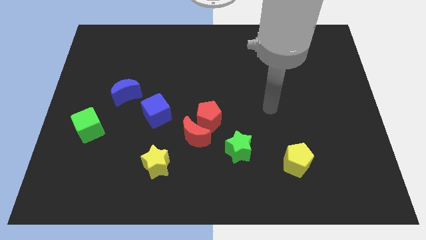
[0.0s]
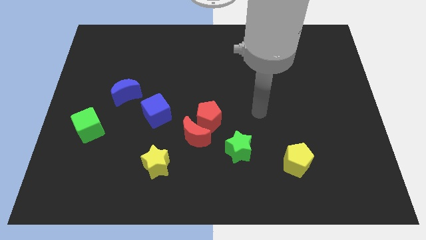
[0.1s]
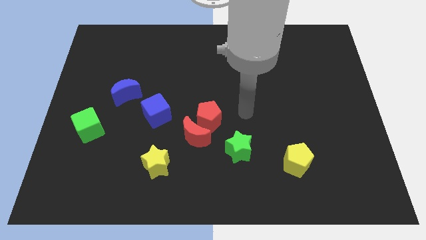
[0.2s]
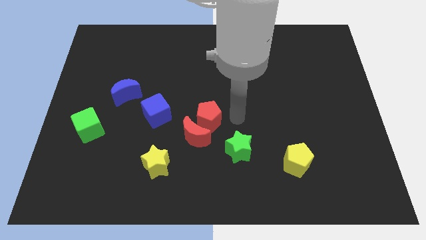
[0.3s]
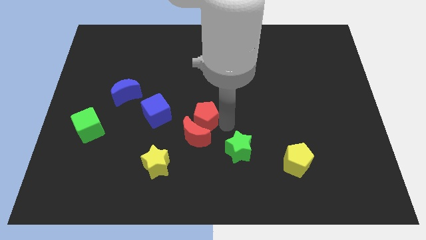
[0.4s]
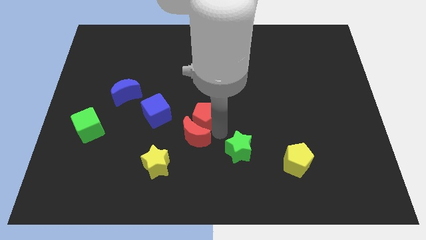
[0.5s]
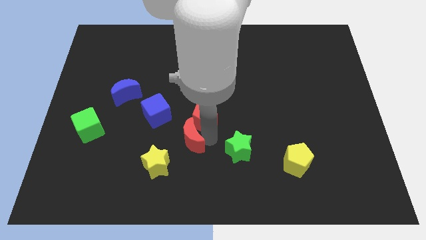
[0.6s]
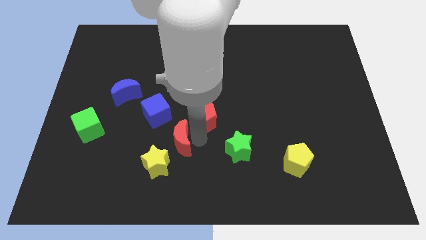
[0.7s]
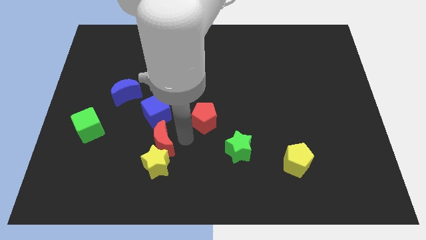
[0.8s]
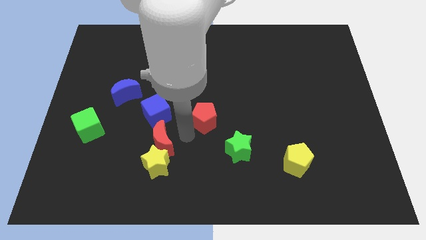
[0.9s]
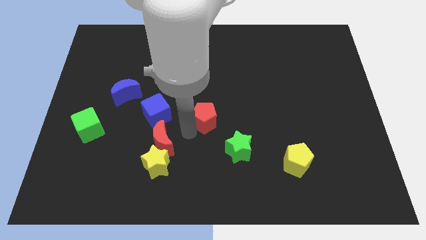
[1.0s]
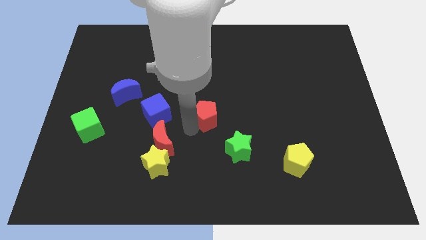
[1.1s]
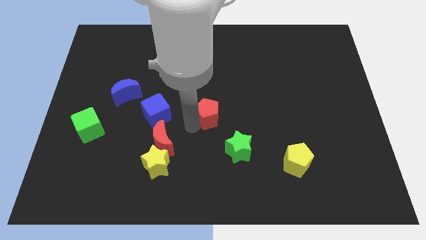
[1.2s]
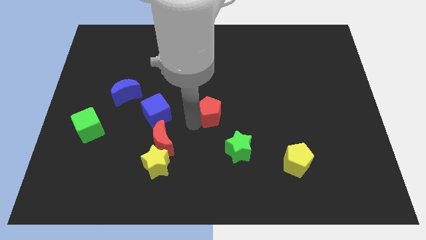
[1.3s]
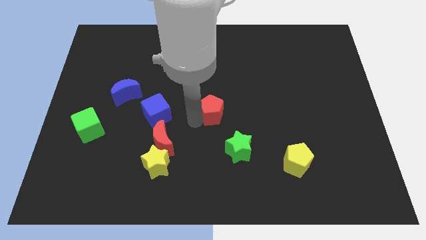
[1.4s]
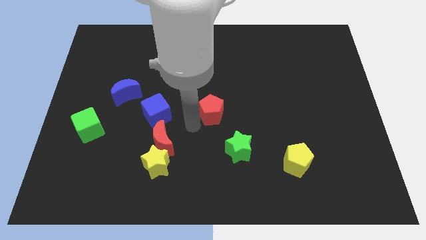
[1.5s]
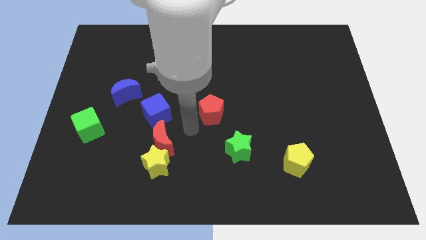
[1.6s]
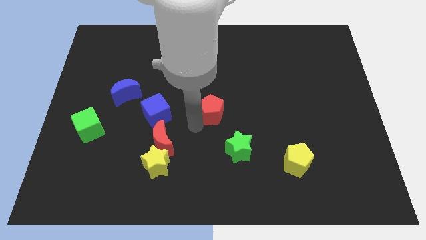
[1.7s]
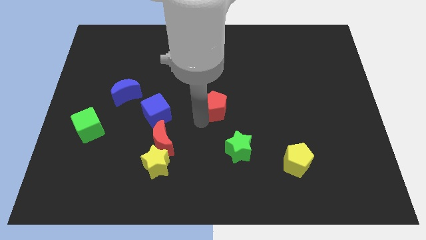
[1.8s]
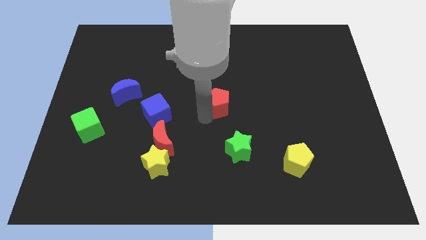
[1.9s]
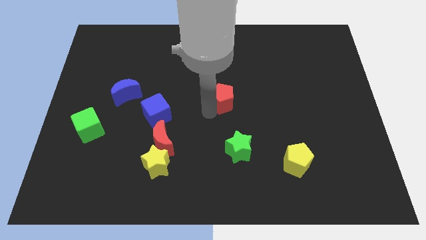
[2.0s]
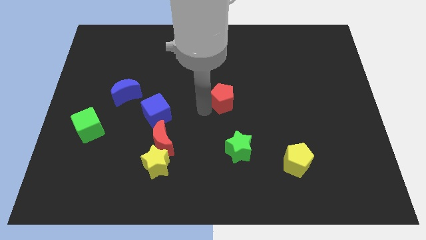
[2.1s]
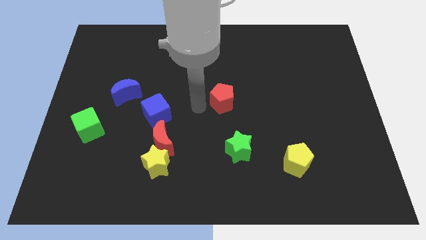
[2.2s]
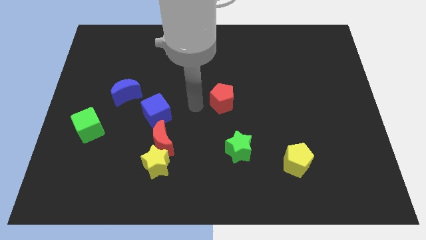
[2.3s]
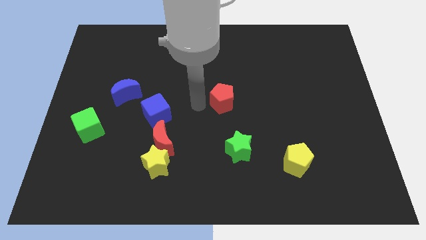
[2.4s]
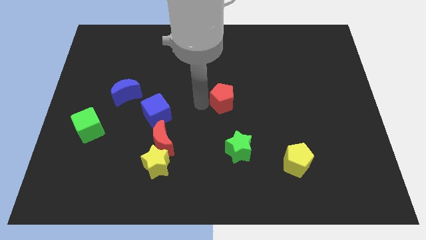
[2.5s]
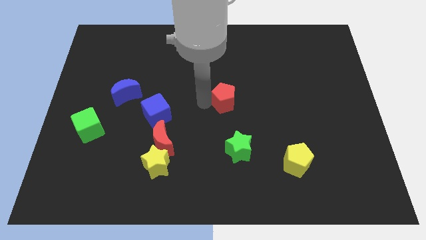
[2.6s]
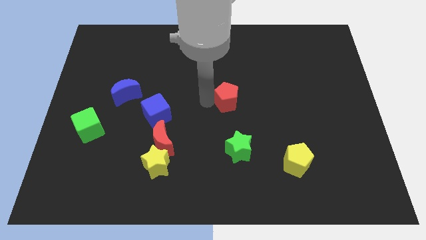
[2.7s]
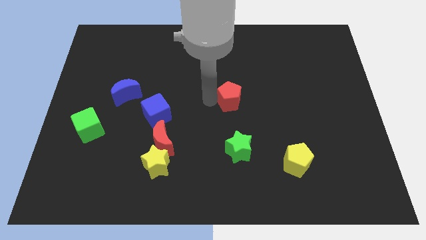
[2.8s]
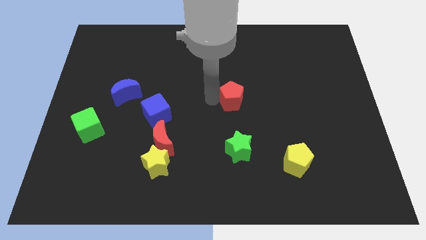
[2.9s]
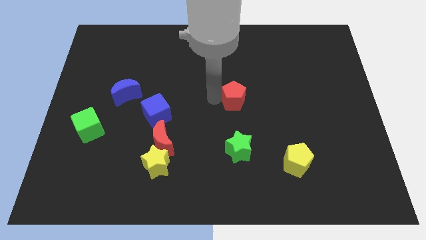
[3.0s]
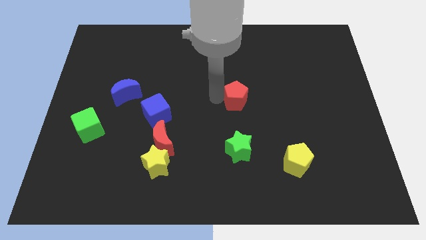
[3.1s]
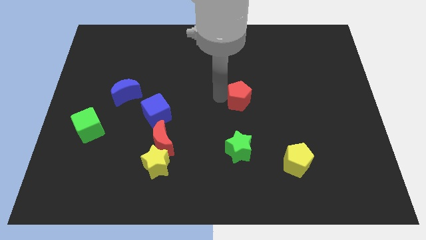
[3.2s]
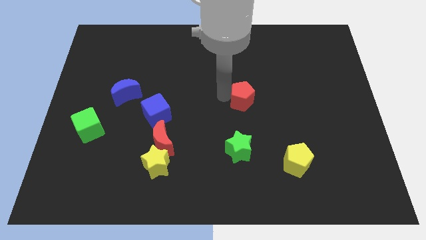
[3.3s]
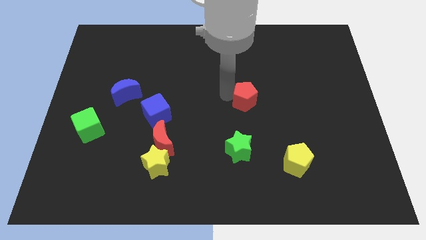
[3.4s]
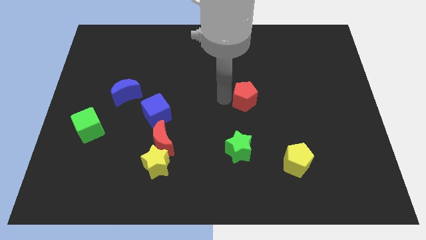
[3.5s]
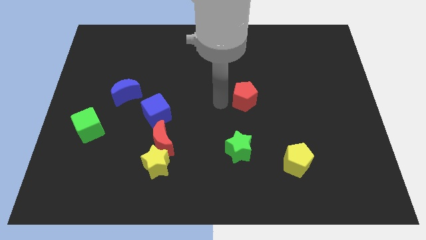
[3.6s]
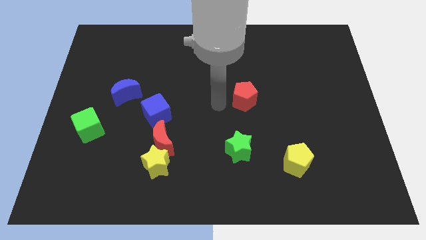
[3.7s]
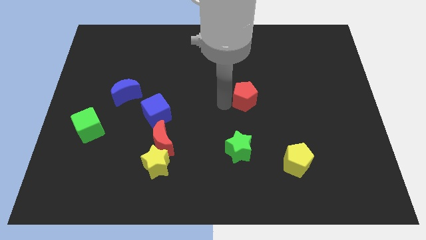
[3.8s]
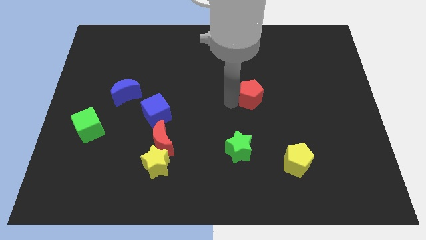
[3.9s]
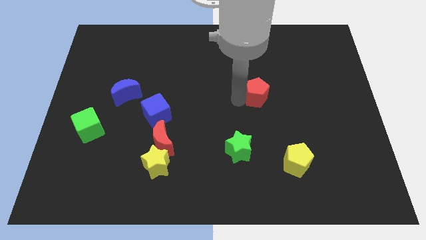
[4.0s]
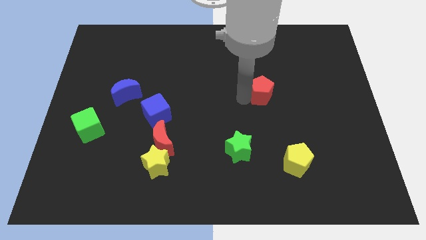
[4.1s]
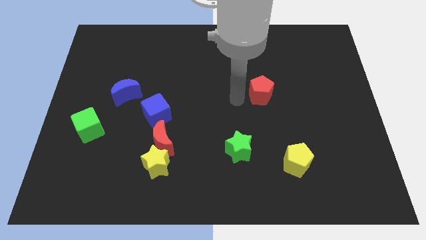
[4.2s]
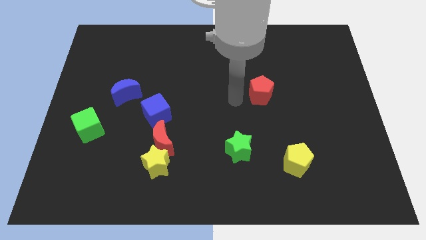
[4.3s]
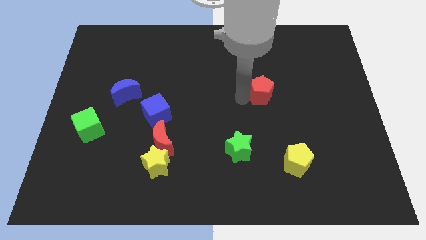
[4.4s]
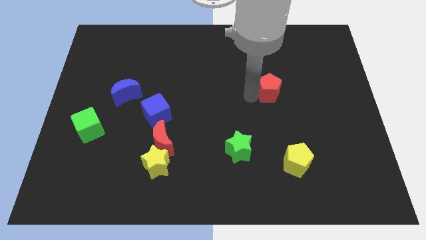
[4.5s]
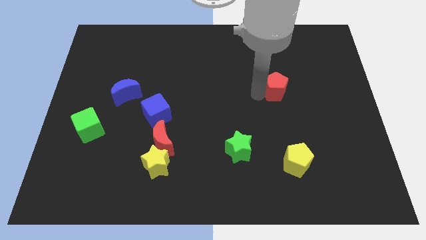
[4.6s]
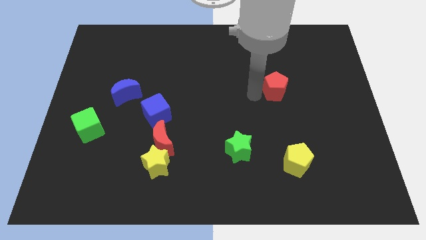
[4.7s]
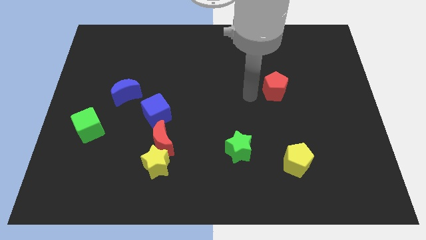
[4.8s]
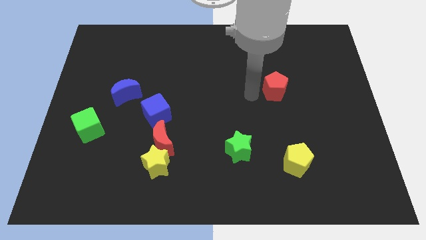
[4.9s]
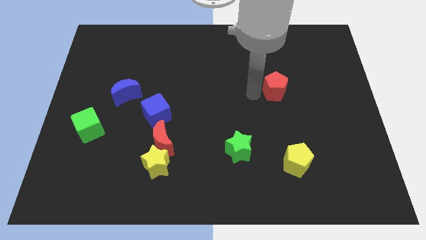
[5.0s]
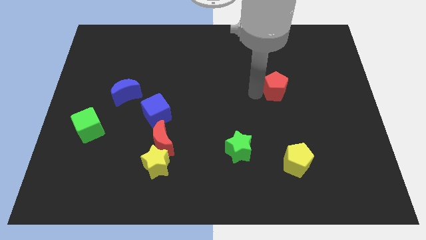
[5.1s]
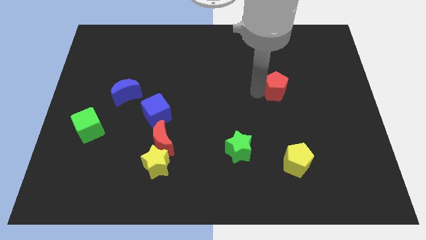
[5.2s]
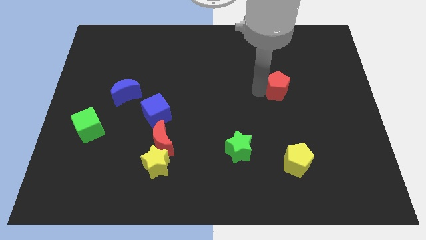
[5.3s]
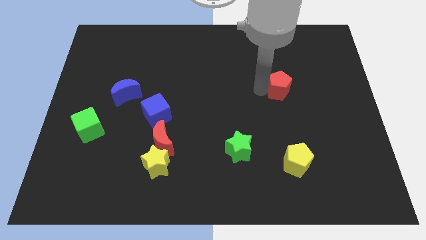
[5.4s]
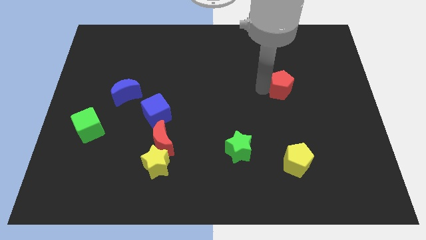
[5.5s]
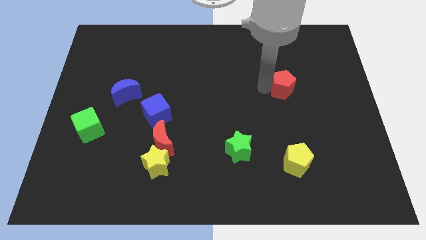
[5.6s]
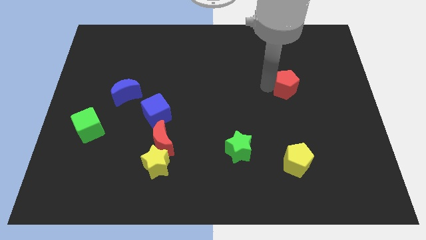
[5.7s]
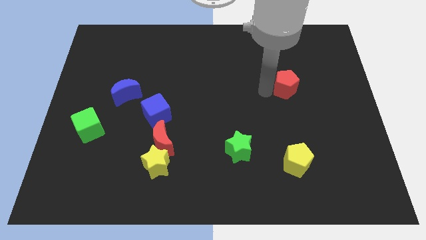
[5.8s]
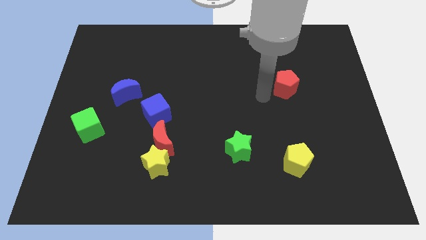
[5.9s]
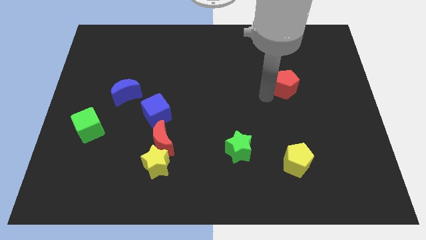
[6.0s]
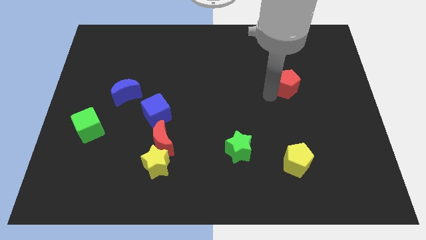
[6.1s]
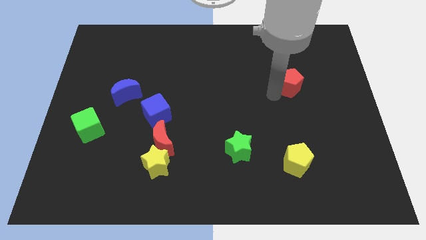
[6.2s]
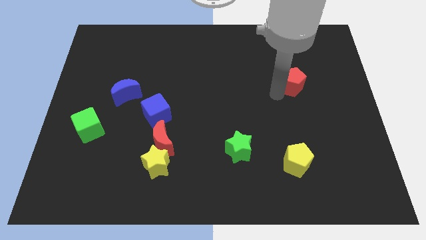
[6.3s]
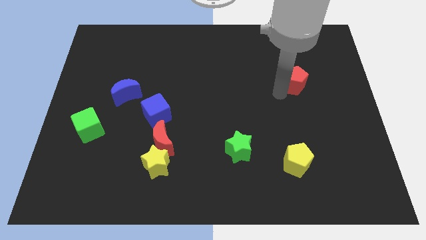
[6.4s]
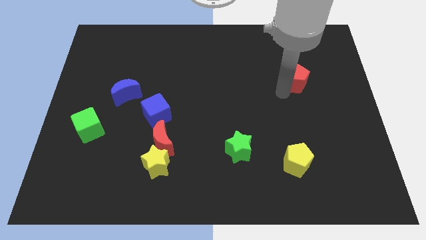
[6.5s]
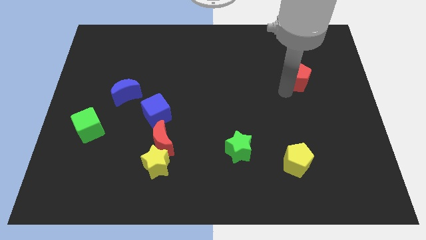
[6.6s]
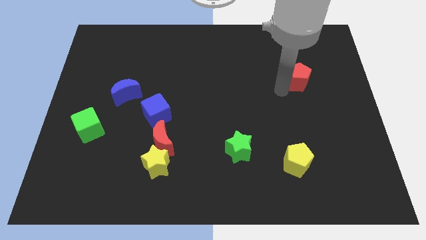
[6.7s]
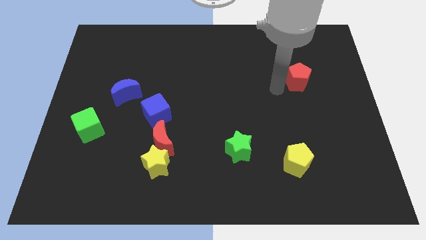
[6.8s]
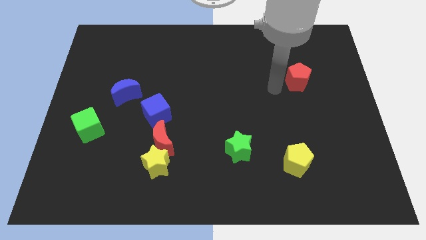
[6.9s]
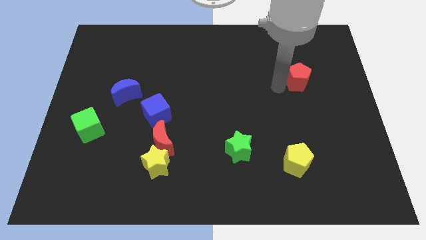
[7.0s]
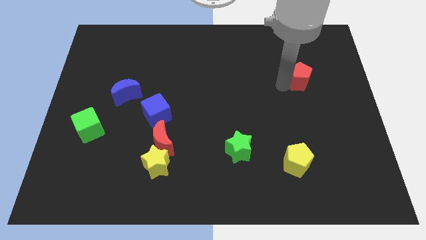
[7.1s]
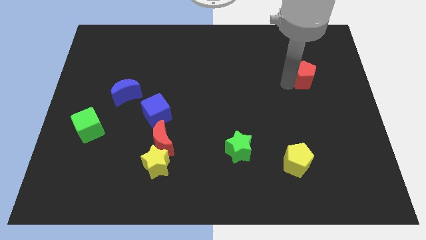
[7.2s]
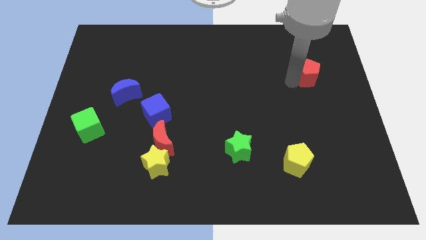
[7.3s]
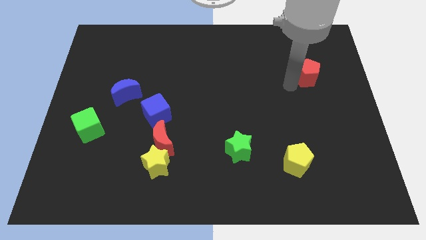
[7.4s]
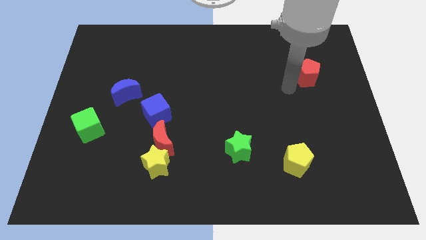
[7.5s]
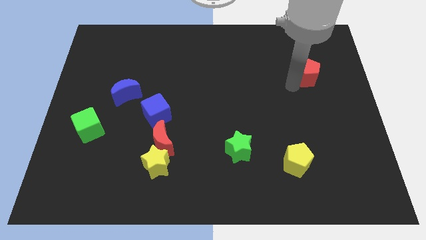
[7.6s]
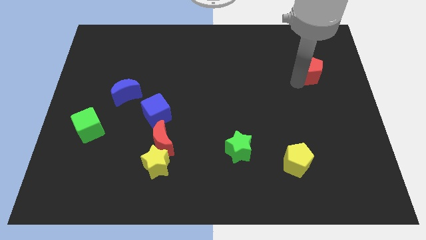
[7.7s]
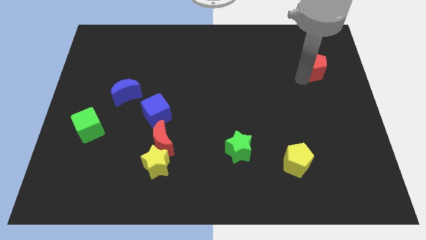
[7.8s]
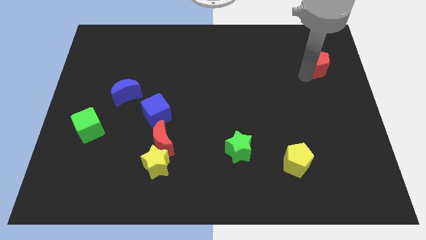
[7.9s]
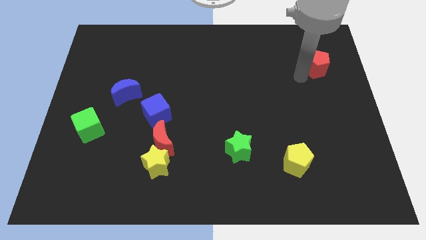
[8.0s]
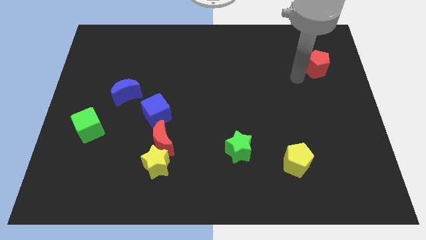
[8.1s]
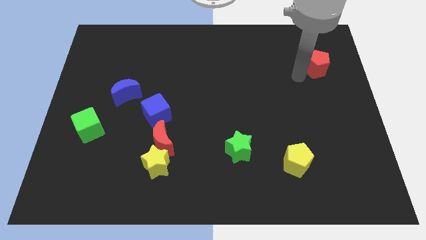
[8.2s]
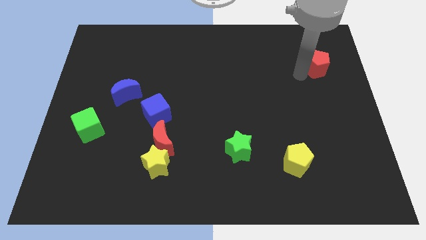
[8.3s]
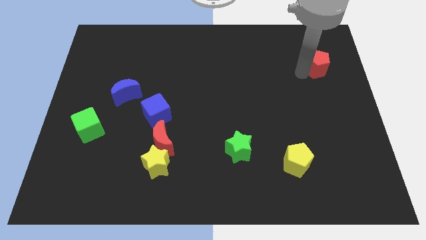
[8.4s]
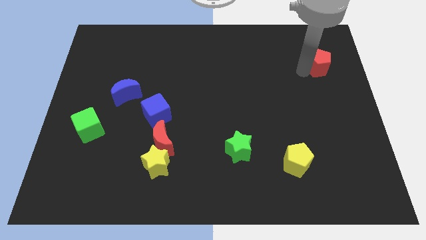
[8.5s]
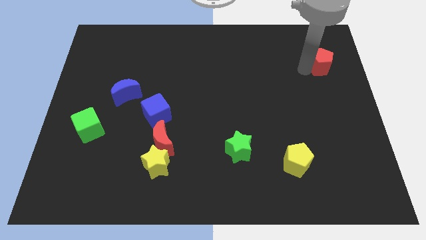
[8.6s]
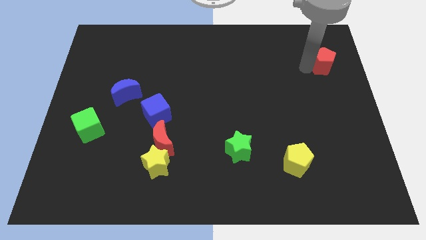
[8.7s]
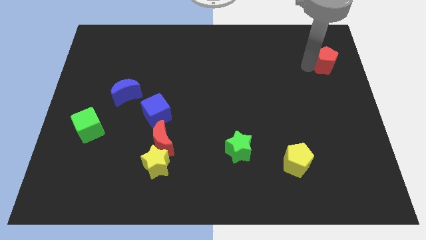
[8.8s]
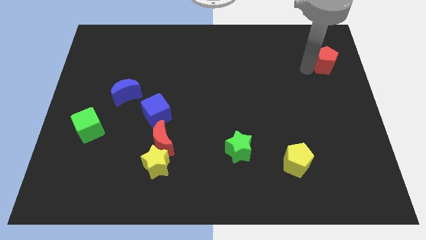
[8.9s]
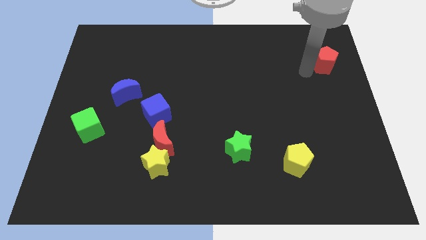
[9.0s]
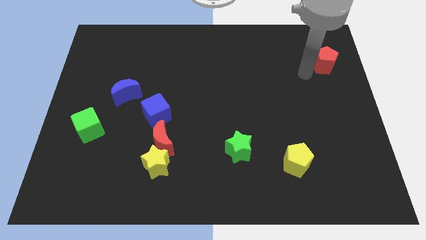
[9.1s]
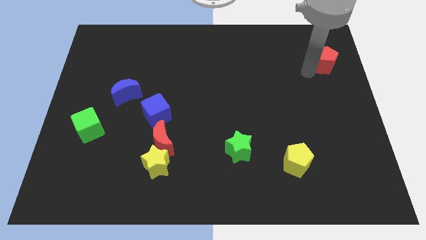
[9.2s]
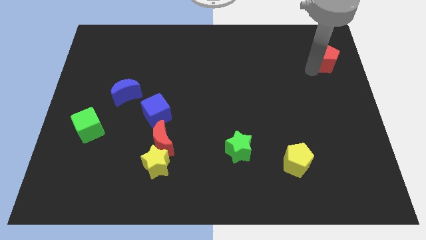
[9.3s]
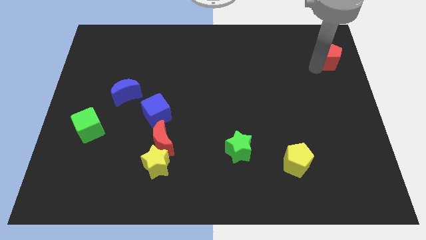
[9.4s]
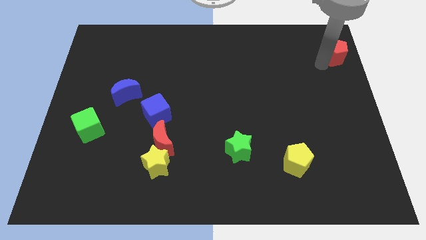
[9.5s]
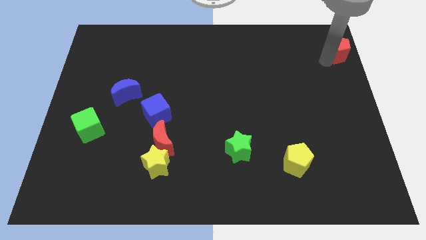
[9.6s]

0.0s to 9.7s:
slide the red pentagon to the top right
